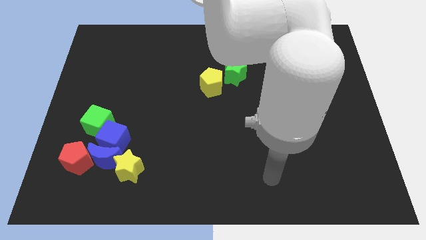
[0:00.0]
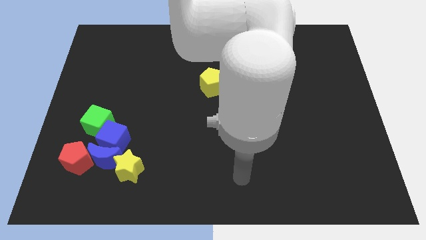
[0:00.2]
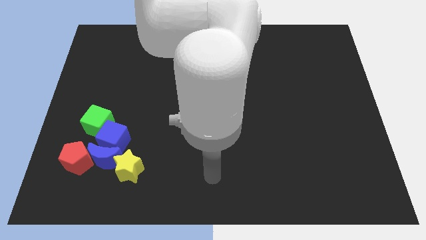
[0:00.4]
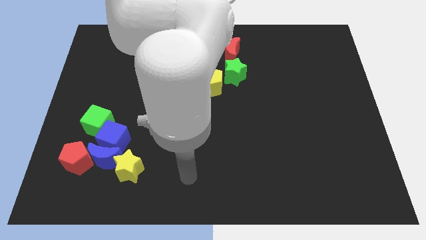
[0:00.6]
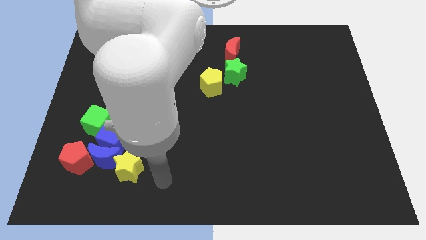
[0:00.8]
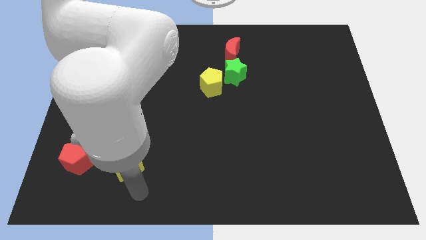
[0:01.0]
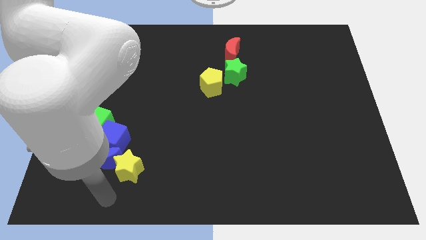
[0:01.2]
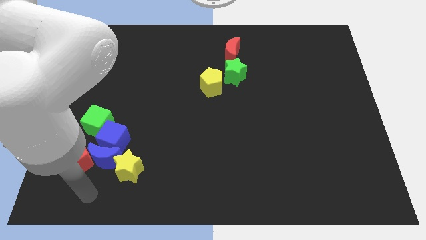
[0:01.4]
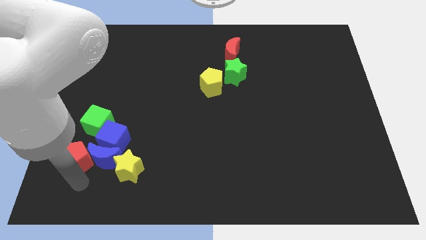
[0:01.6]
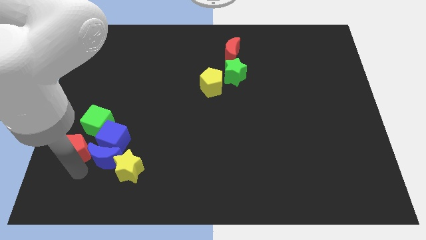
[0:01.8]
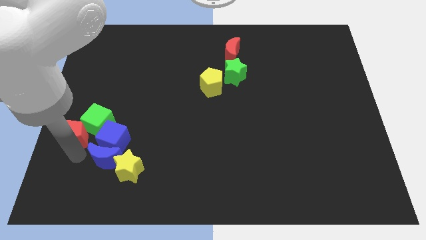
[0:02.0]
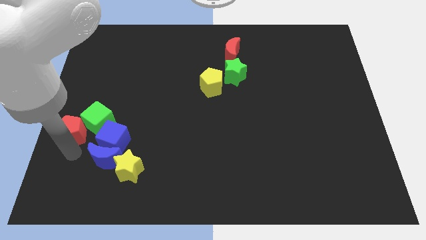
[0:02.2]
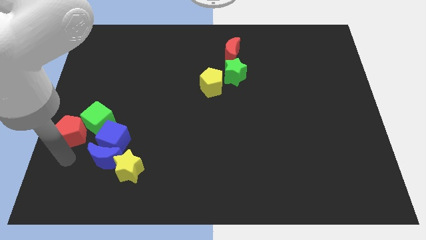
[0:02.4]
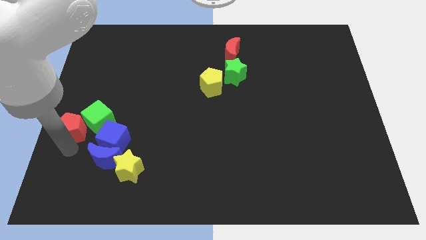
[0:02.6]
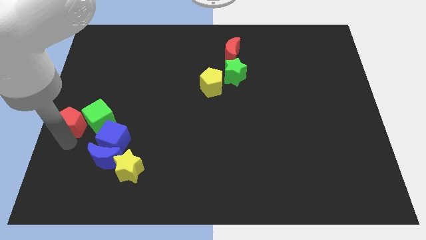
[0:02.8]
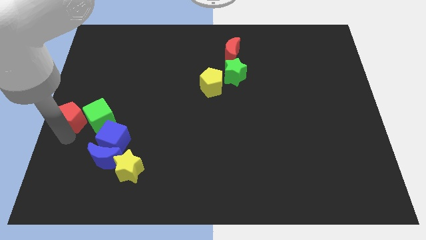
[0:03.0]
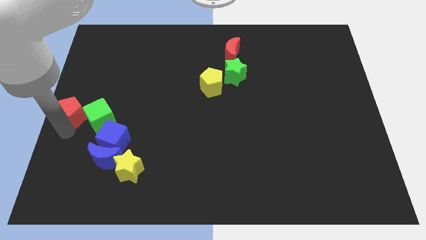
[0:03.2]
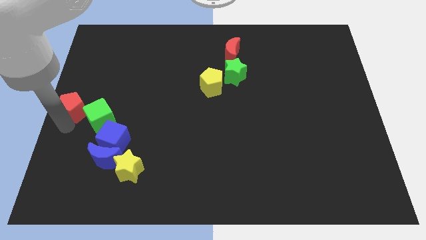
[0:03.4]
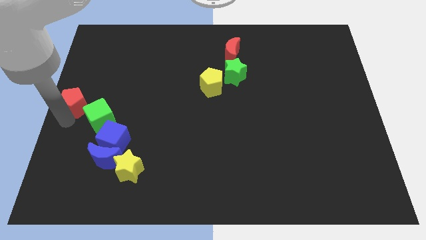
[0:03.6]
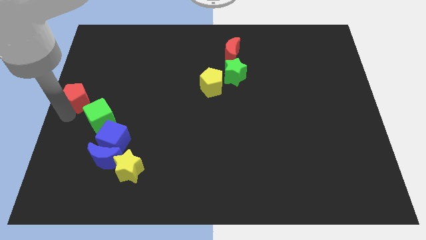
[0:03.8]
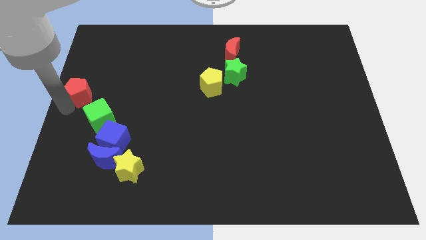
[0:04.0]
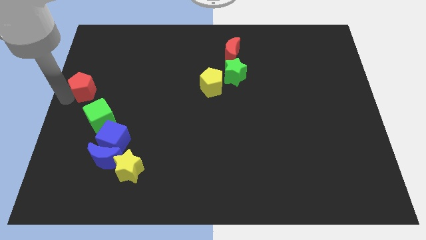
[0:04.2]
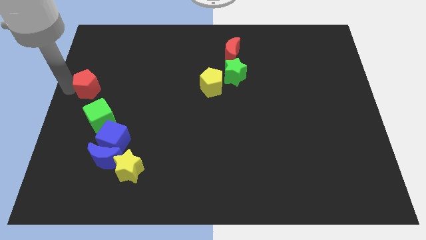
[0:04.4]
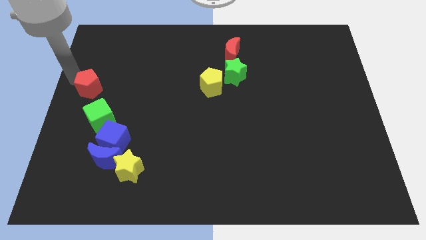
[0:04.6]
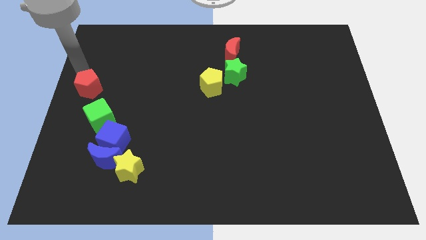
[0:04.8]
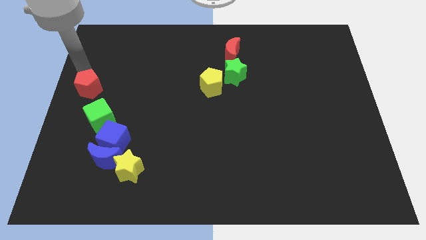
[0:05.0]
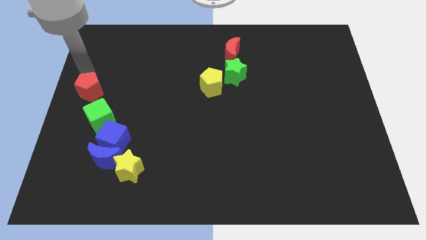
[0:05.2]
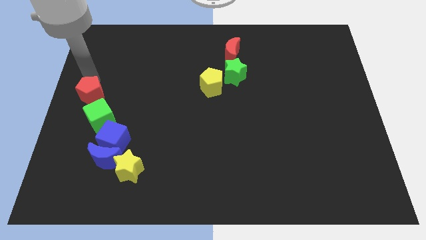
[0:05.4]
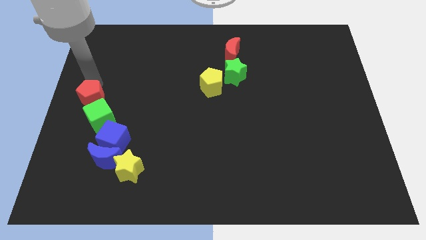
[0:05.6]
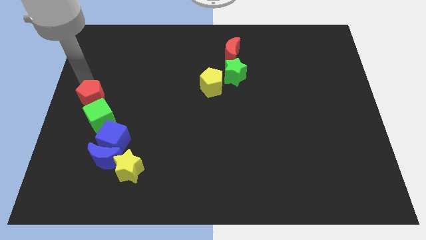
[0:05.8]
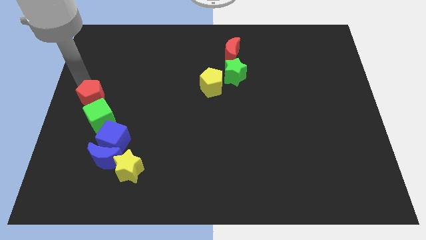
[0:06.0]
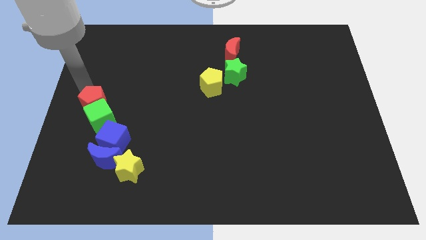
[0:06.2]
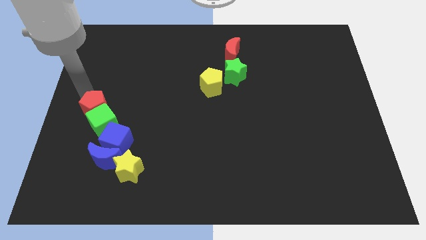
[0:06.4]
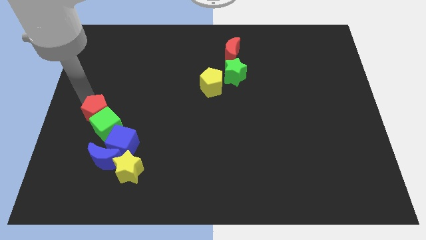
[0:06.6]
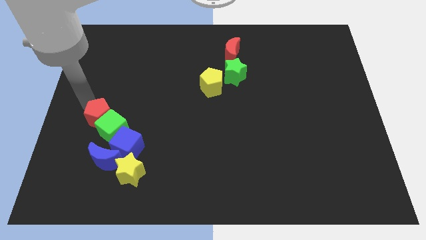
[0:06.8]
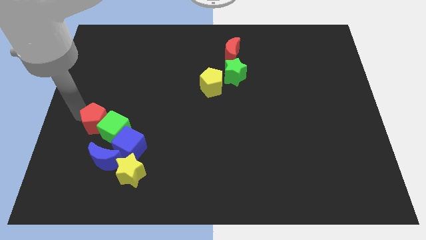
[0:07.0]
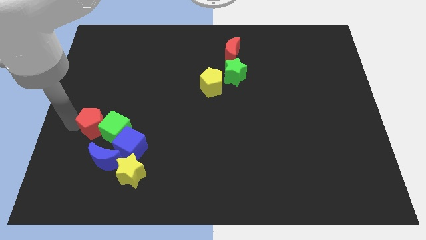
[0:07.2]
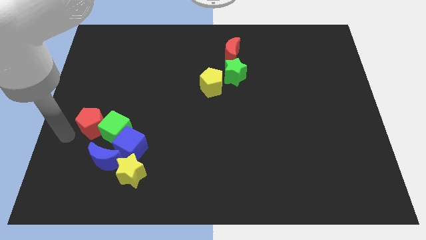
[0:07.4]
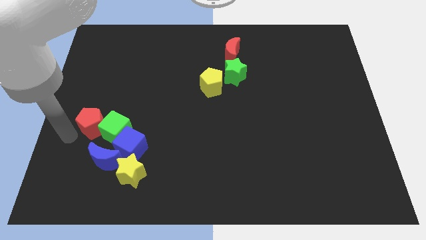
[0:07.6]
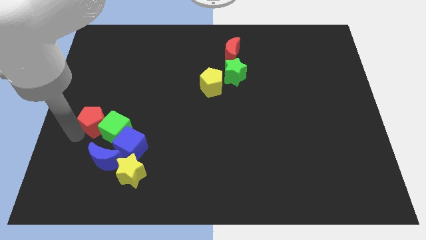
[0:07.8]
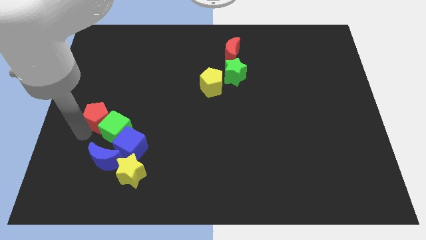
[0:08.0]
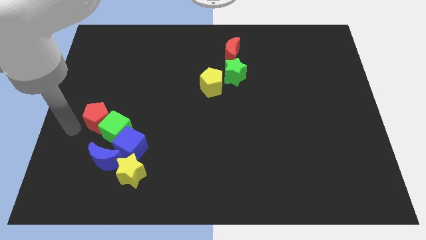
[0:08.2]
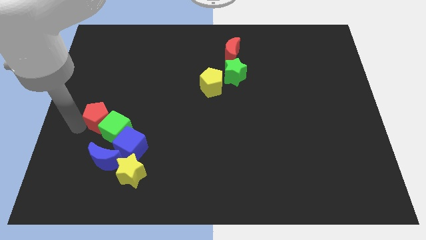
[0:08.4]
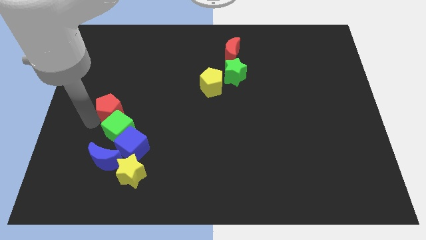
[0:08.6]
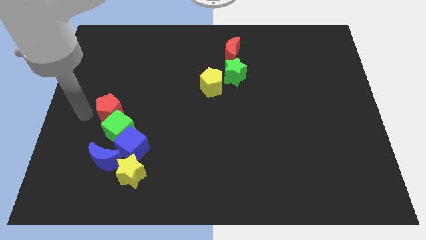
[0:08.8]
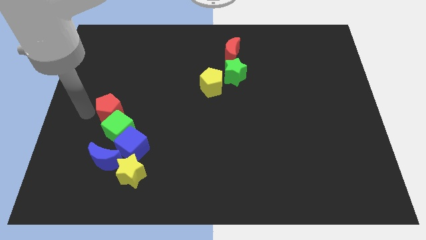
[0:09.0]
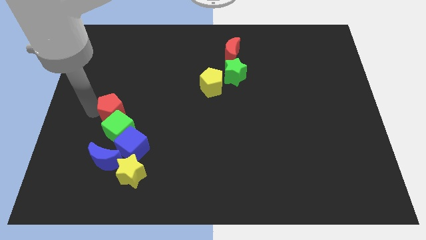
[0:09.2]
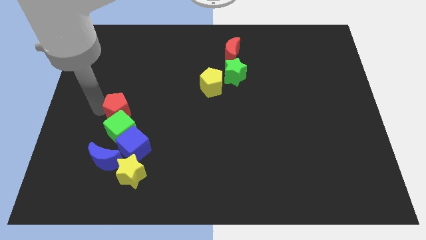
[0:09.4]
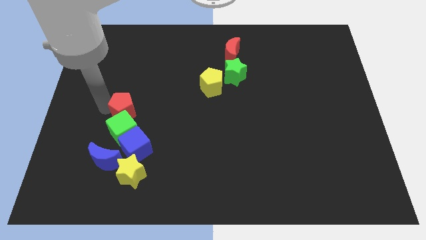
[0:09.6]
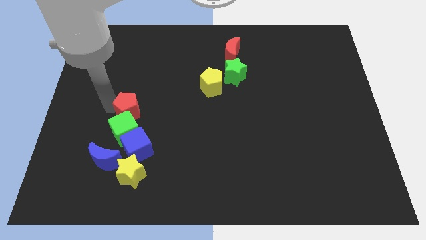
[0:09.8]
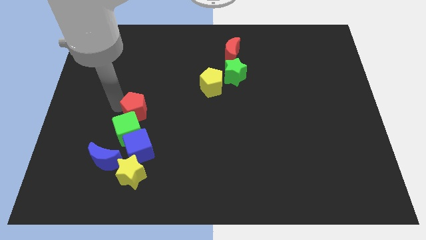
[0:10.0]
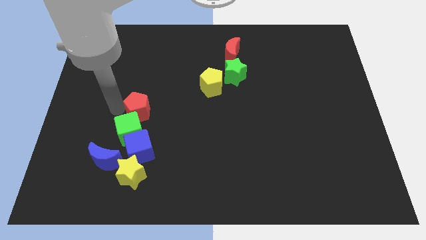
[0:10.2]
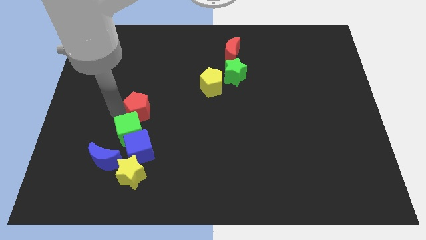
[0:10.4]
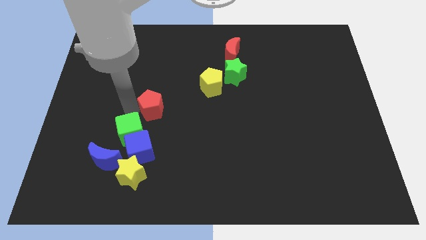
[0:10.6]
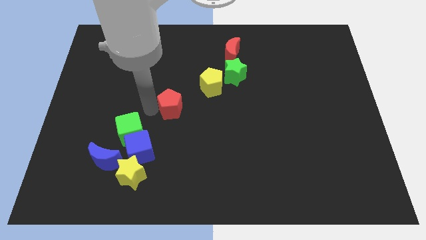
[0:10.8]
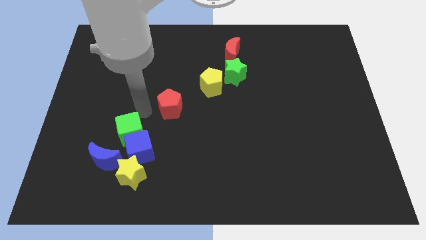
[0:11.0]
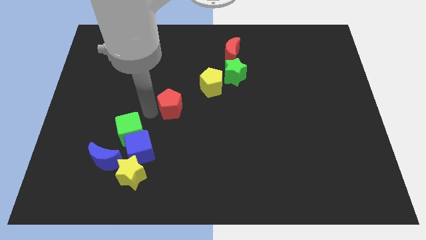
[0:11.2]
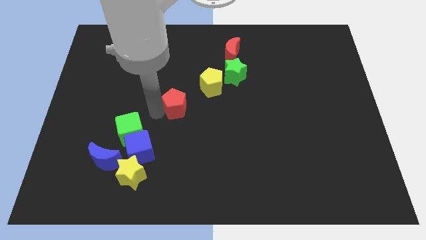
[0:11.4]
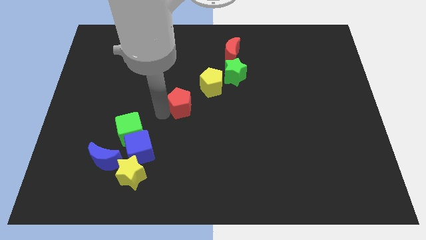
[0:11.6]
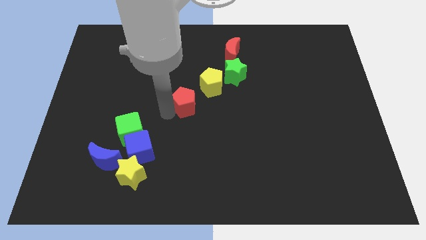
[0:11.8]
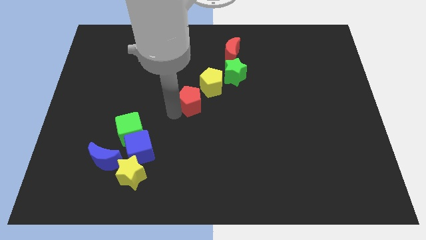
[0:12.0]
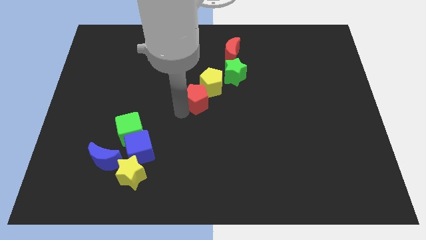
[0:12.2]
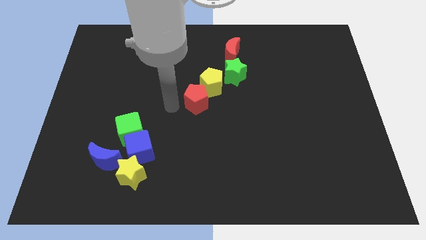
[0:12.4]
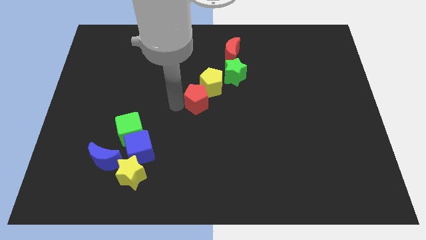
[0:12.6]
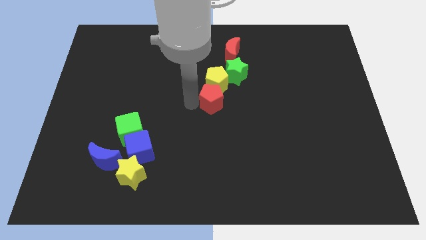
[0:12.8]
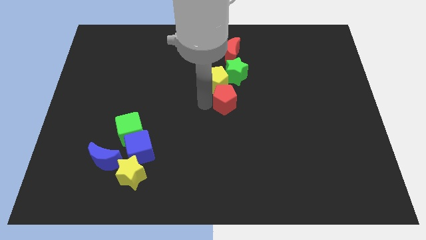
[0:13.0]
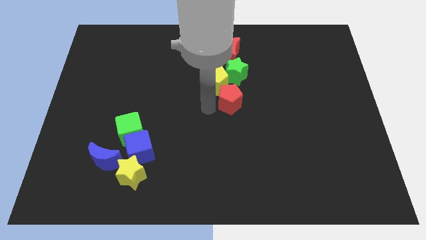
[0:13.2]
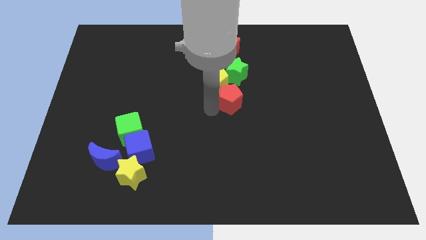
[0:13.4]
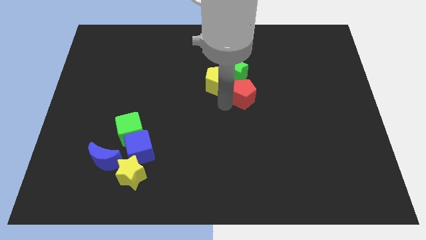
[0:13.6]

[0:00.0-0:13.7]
push the red pentagon to the bottom right side of the green star
